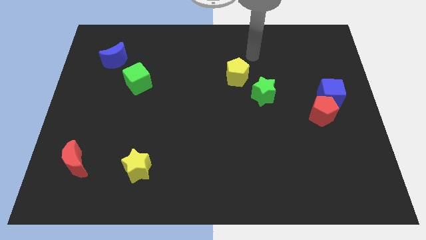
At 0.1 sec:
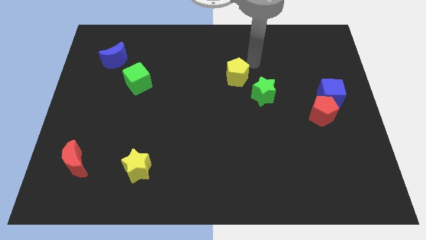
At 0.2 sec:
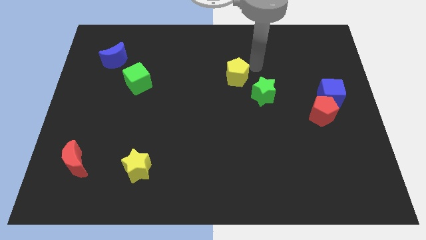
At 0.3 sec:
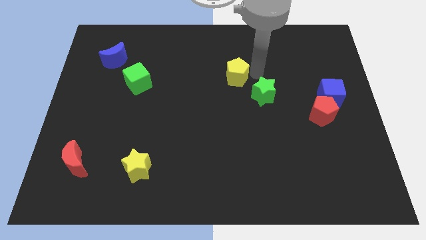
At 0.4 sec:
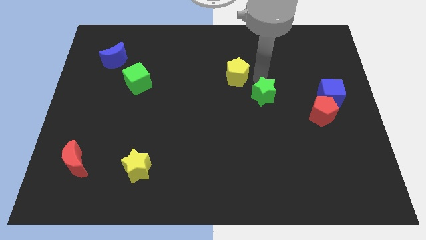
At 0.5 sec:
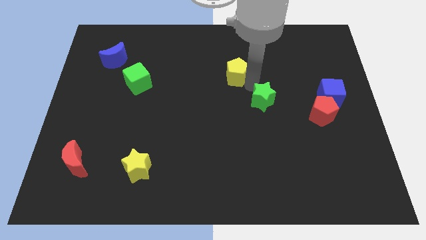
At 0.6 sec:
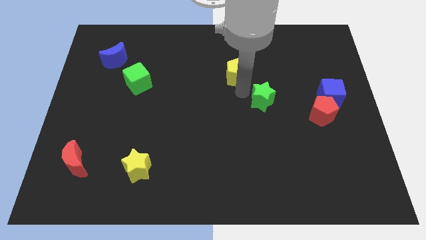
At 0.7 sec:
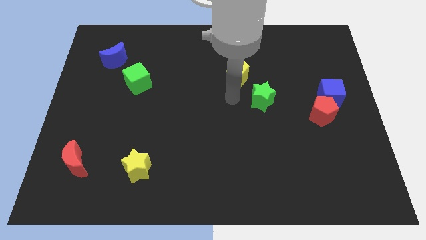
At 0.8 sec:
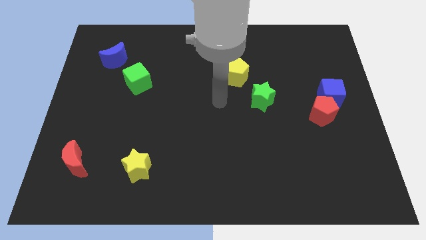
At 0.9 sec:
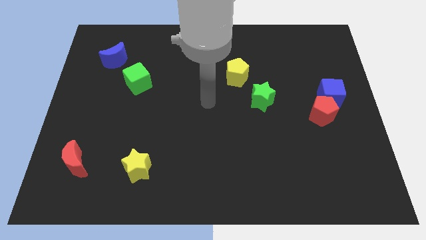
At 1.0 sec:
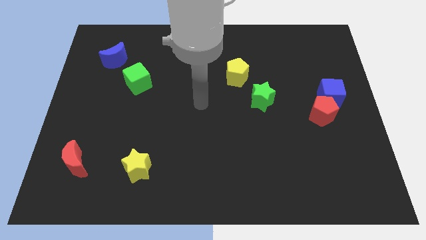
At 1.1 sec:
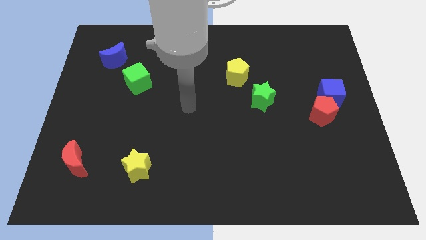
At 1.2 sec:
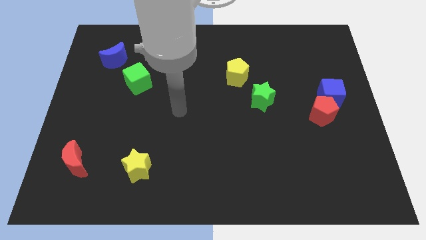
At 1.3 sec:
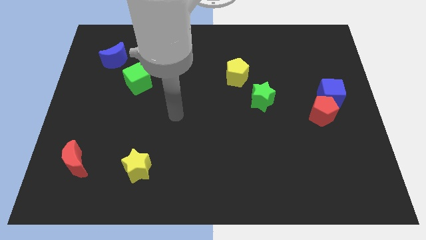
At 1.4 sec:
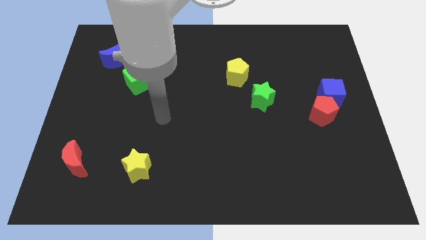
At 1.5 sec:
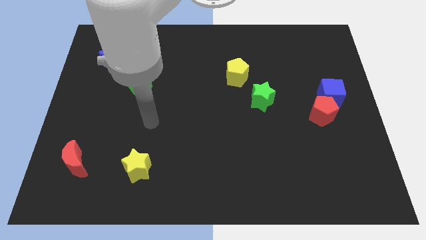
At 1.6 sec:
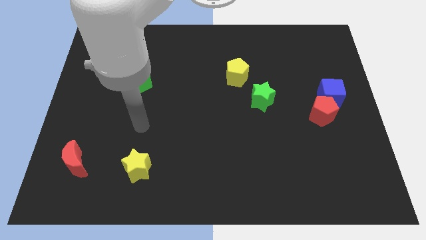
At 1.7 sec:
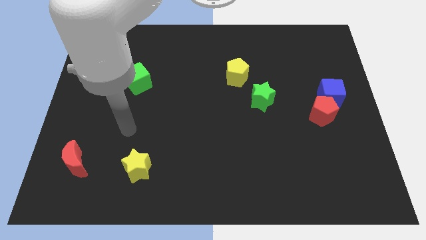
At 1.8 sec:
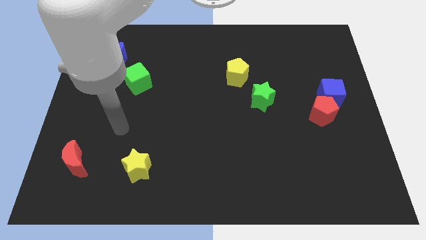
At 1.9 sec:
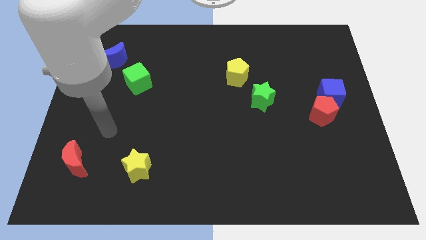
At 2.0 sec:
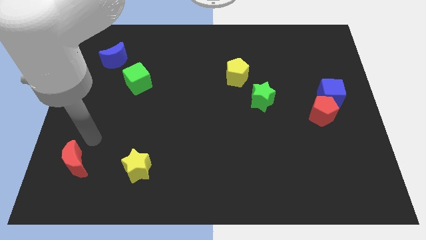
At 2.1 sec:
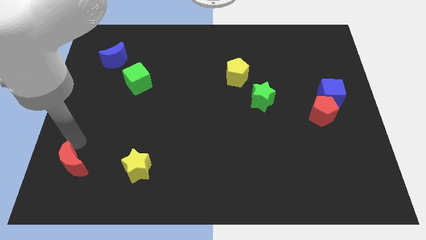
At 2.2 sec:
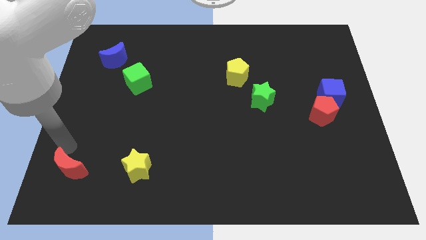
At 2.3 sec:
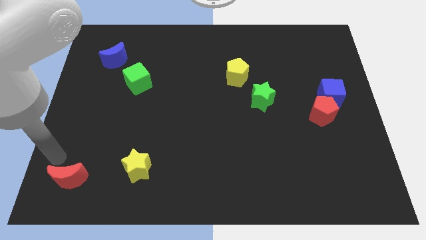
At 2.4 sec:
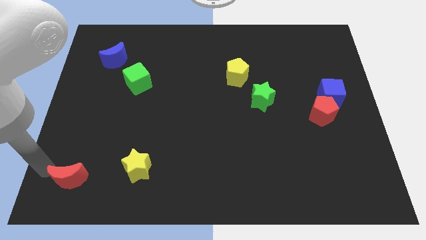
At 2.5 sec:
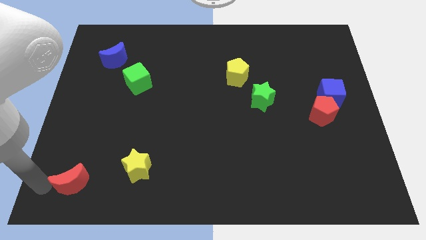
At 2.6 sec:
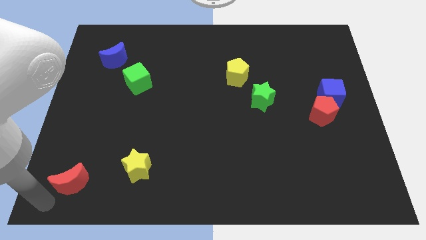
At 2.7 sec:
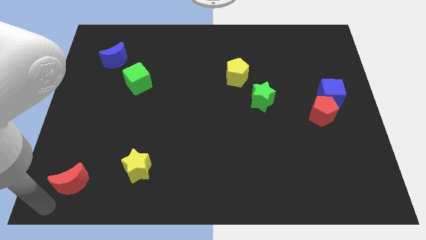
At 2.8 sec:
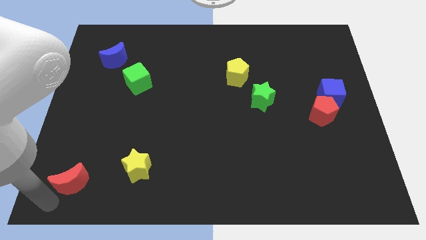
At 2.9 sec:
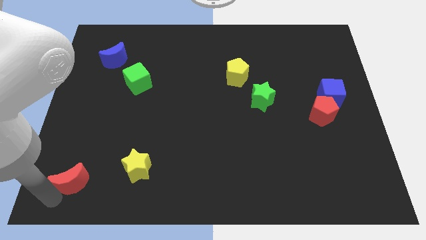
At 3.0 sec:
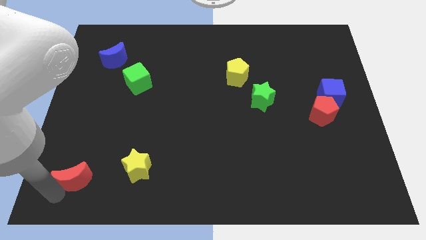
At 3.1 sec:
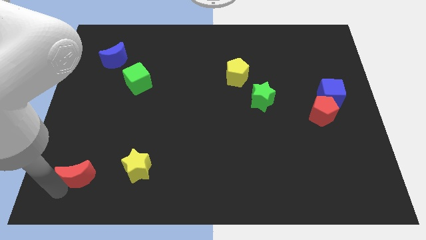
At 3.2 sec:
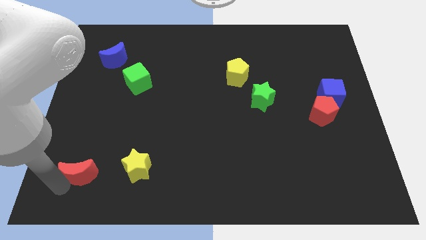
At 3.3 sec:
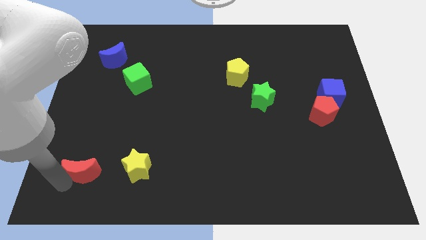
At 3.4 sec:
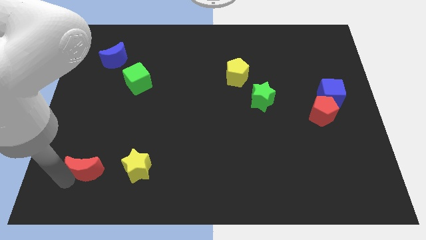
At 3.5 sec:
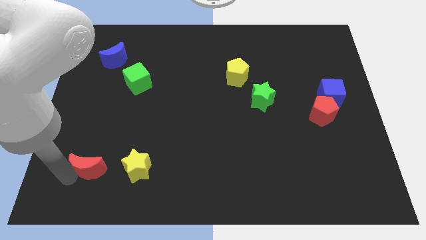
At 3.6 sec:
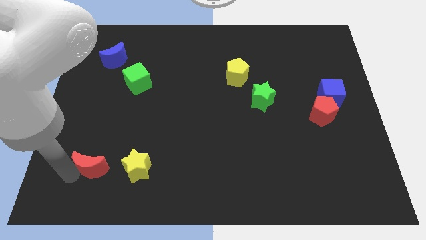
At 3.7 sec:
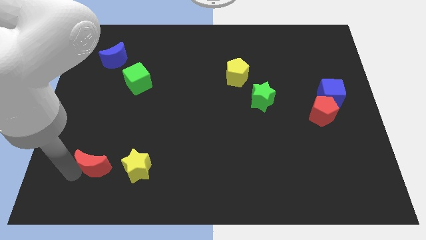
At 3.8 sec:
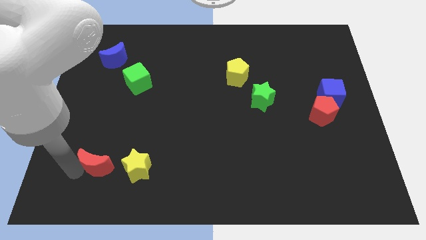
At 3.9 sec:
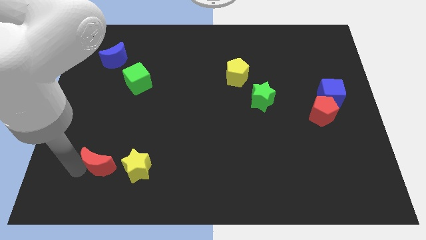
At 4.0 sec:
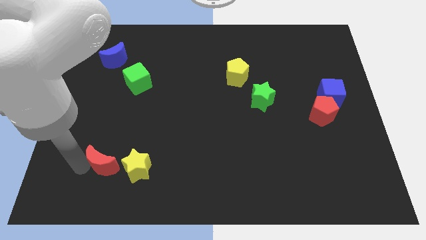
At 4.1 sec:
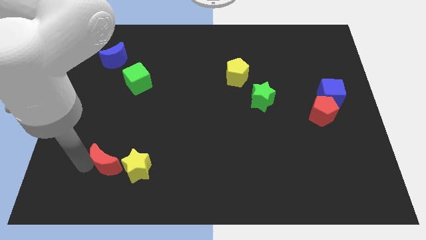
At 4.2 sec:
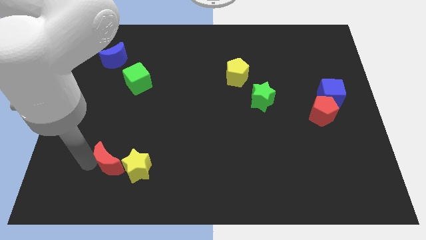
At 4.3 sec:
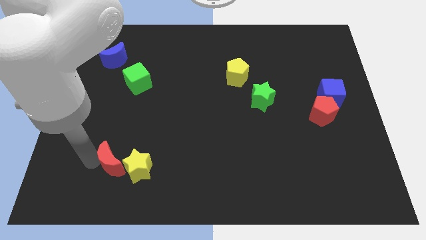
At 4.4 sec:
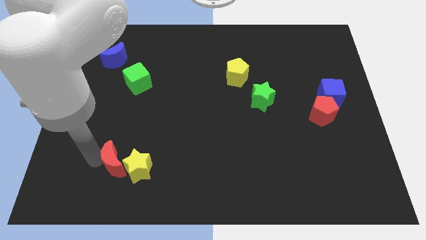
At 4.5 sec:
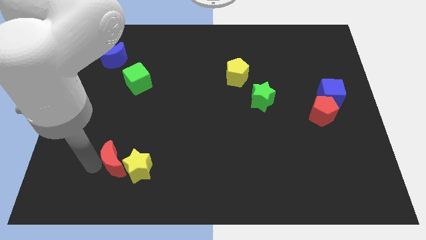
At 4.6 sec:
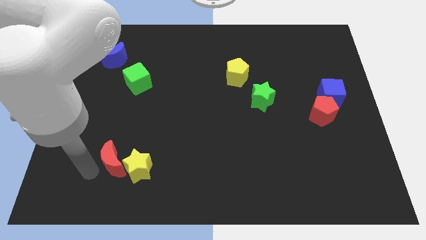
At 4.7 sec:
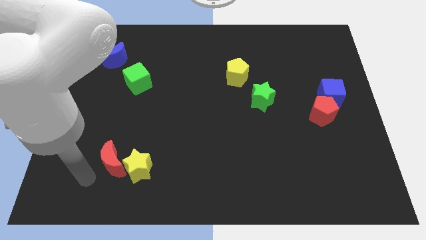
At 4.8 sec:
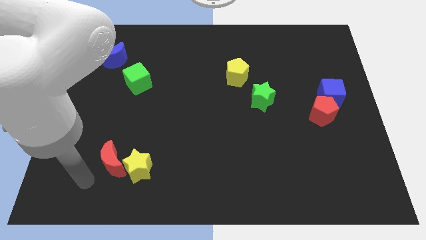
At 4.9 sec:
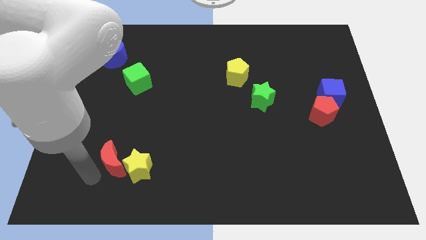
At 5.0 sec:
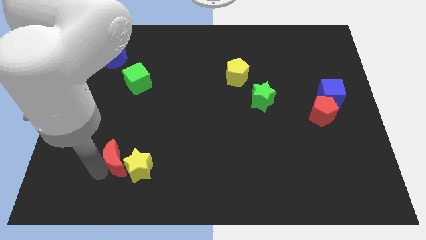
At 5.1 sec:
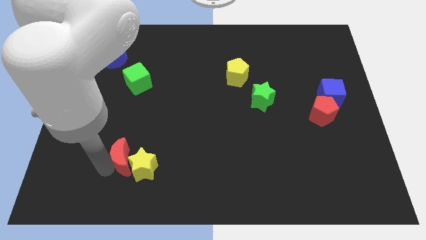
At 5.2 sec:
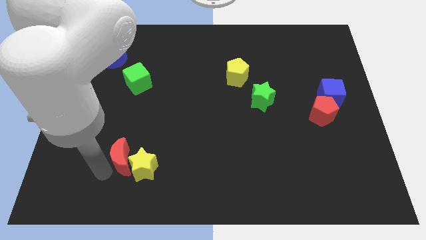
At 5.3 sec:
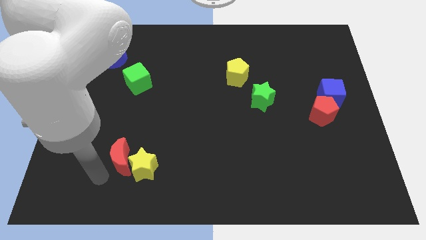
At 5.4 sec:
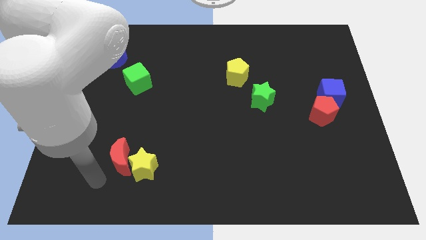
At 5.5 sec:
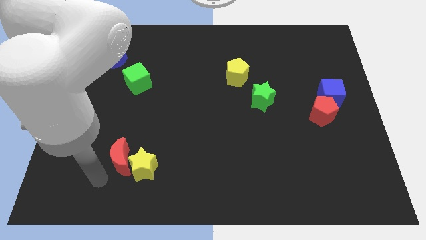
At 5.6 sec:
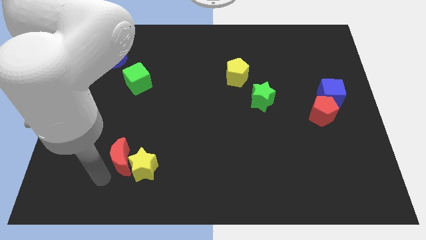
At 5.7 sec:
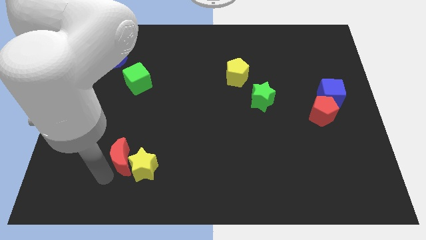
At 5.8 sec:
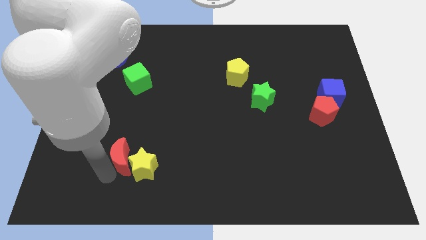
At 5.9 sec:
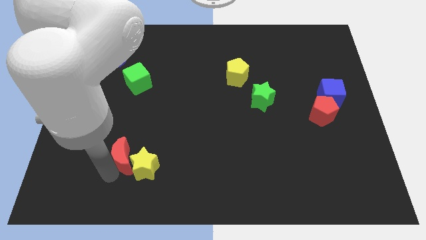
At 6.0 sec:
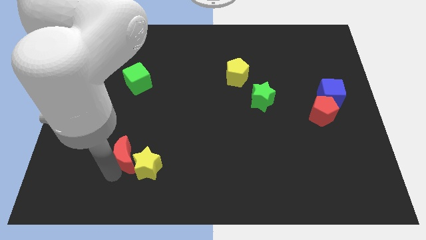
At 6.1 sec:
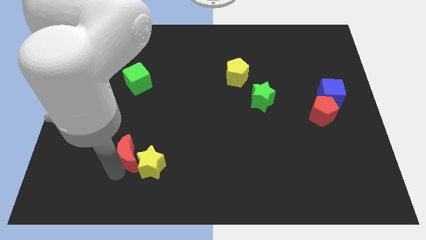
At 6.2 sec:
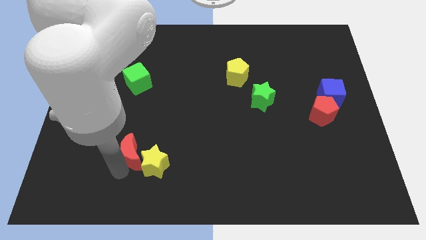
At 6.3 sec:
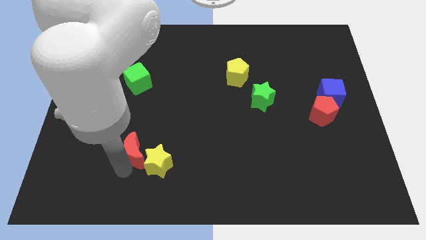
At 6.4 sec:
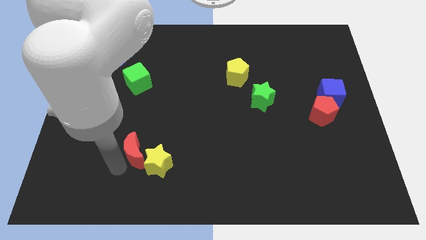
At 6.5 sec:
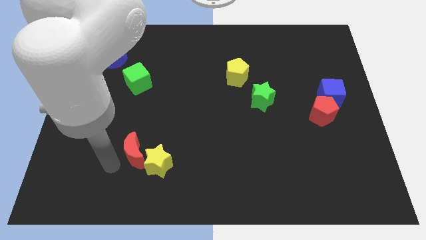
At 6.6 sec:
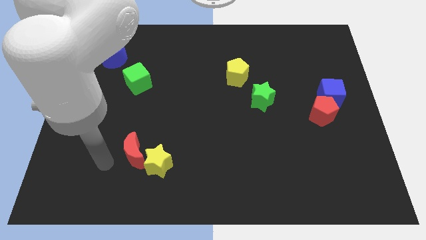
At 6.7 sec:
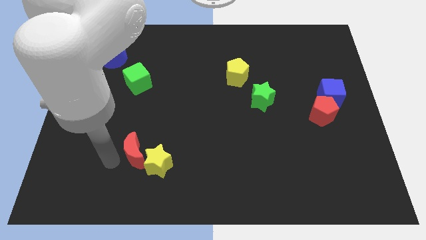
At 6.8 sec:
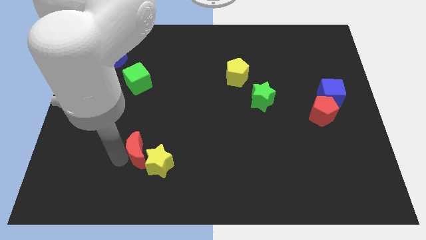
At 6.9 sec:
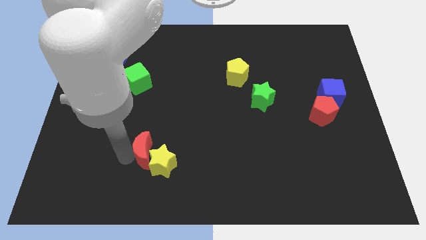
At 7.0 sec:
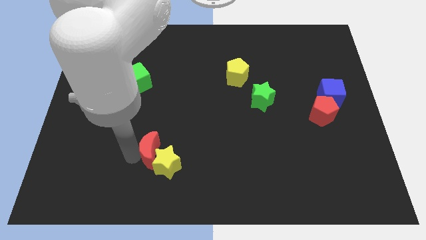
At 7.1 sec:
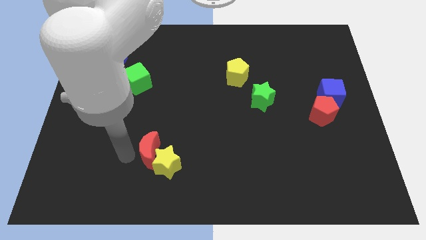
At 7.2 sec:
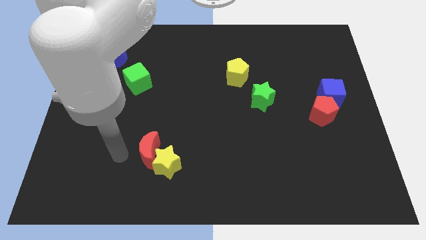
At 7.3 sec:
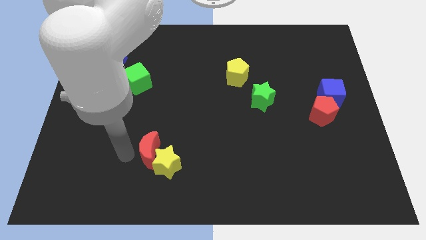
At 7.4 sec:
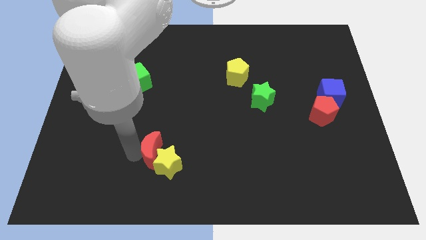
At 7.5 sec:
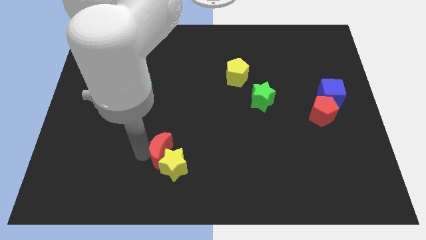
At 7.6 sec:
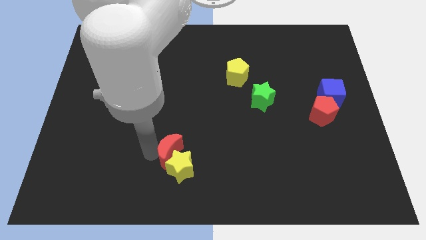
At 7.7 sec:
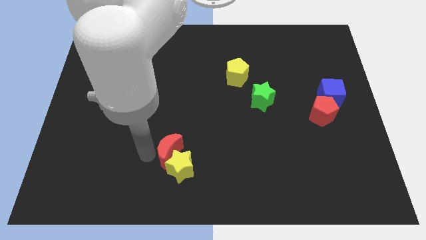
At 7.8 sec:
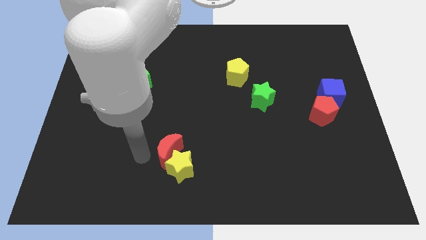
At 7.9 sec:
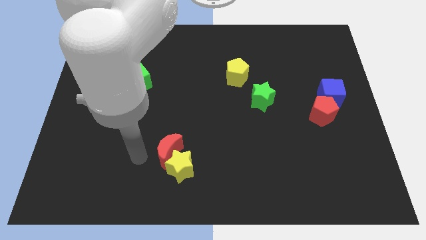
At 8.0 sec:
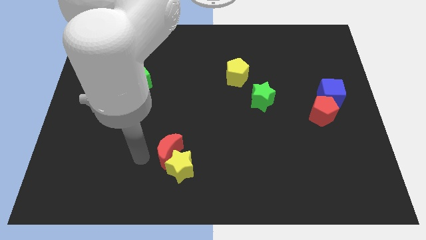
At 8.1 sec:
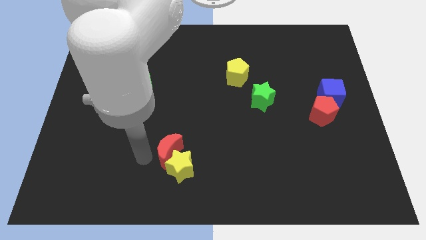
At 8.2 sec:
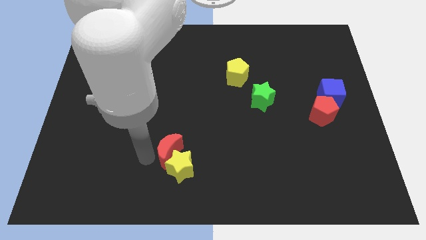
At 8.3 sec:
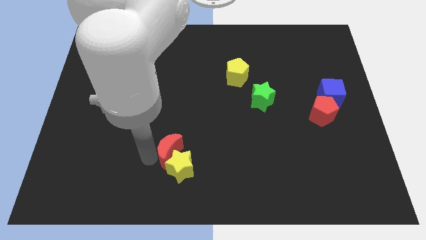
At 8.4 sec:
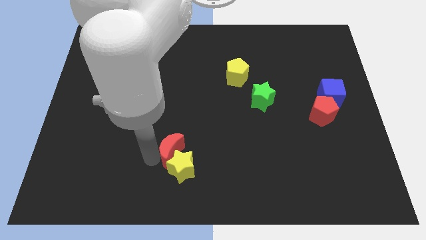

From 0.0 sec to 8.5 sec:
push the red moon to the right
